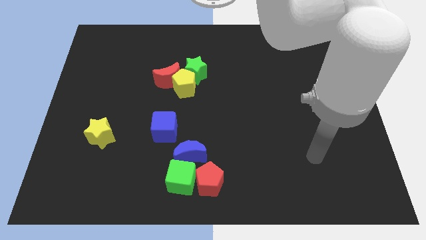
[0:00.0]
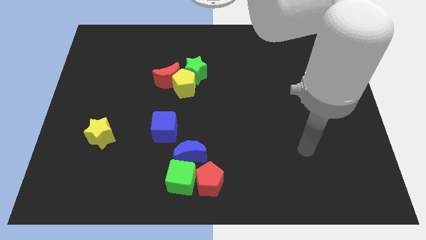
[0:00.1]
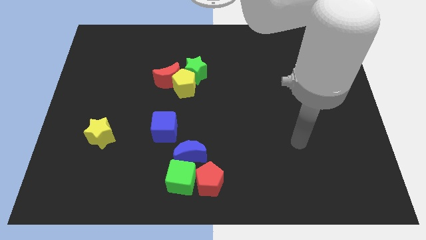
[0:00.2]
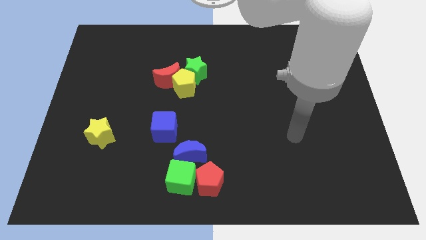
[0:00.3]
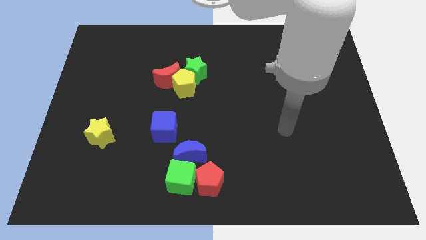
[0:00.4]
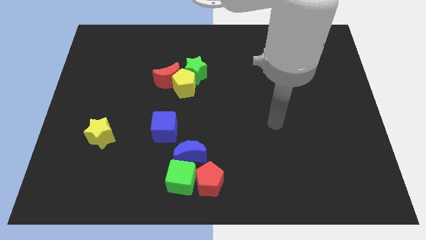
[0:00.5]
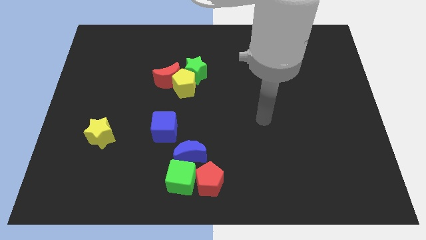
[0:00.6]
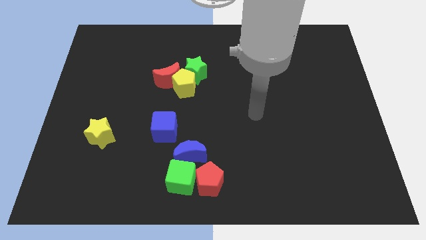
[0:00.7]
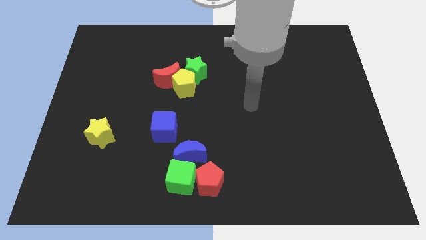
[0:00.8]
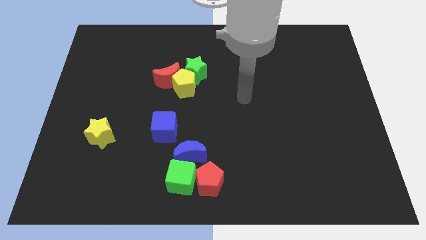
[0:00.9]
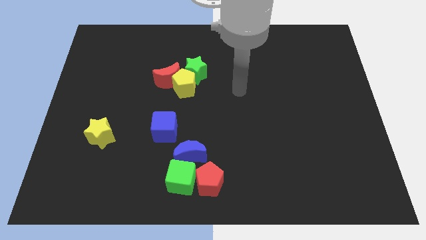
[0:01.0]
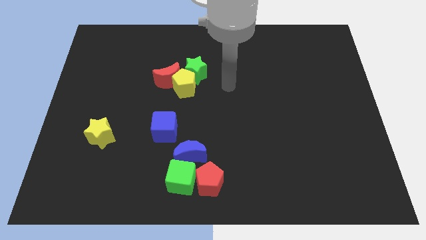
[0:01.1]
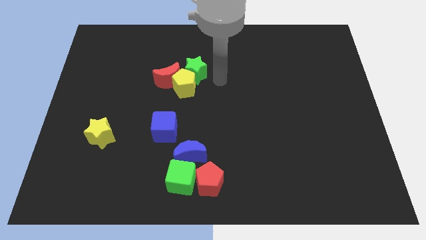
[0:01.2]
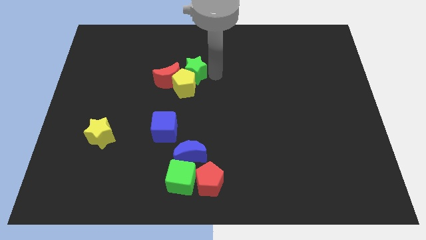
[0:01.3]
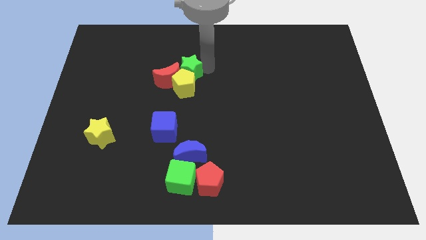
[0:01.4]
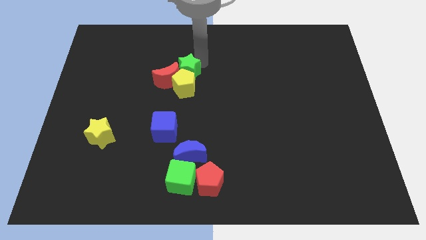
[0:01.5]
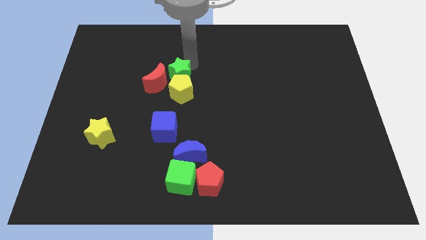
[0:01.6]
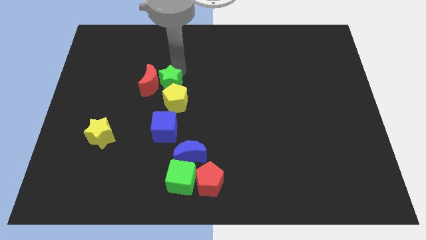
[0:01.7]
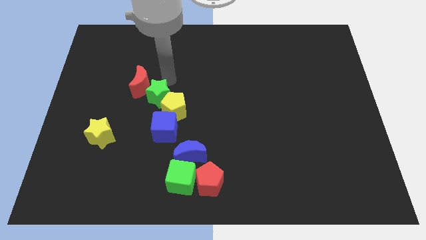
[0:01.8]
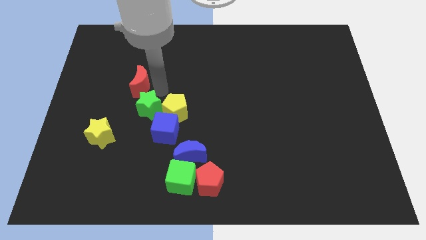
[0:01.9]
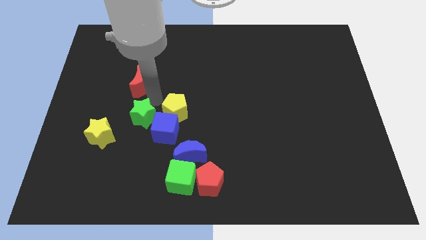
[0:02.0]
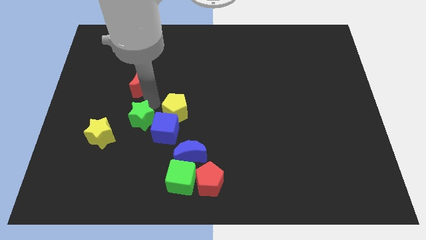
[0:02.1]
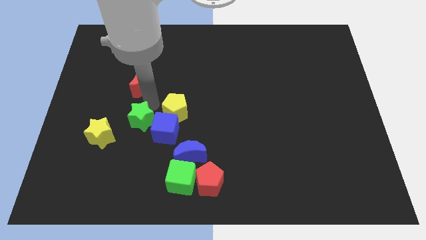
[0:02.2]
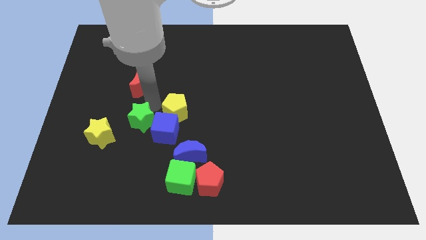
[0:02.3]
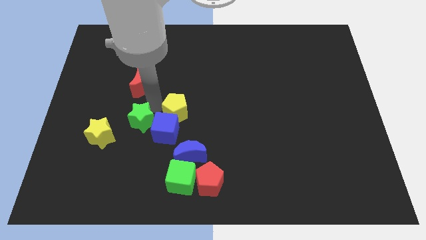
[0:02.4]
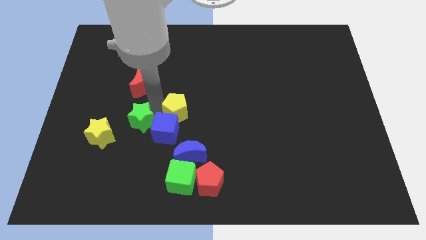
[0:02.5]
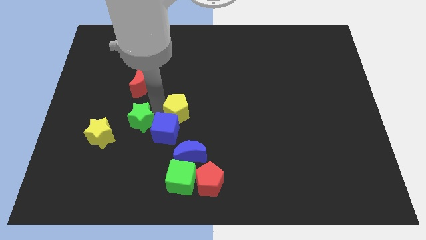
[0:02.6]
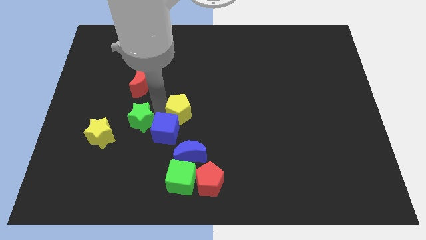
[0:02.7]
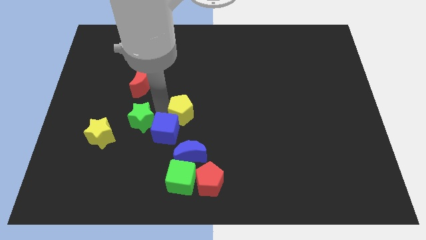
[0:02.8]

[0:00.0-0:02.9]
separate the yellow pentagon from the red moon and green star

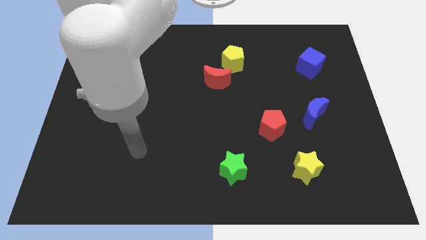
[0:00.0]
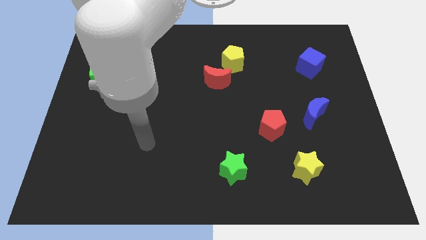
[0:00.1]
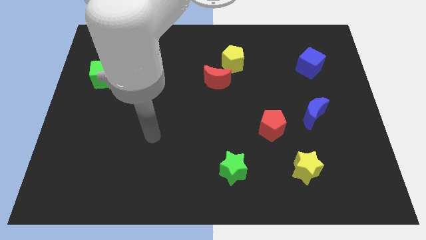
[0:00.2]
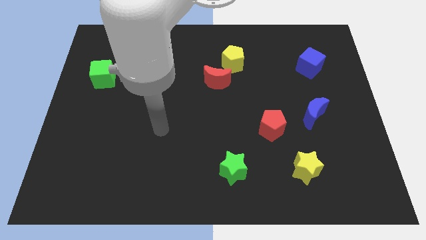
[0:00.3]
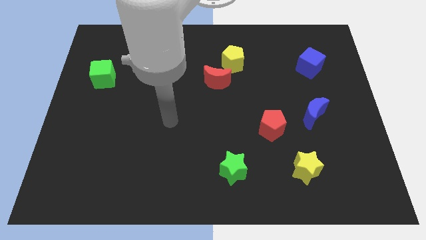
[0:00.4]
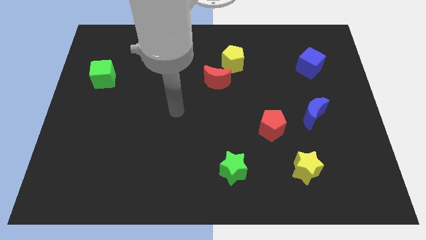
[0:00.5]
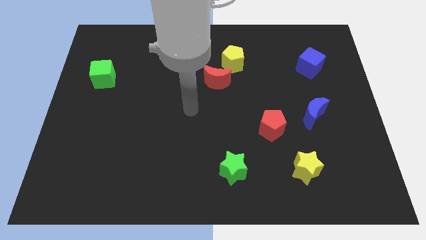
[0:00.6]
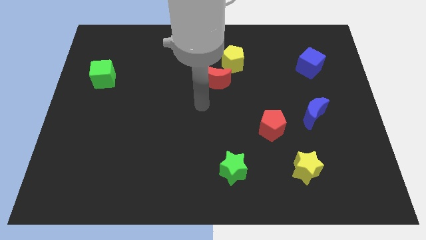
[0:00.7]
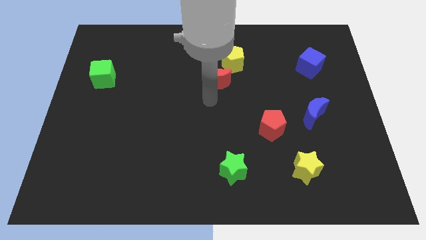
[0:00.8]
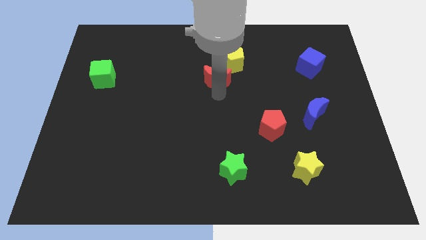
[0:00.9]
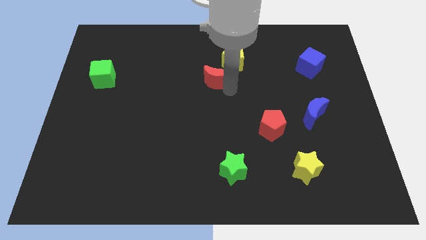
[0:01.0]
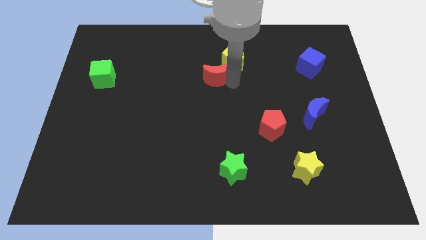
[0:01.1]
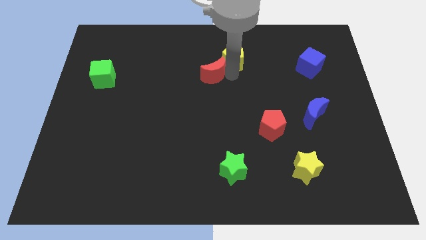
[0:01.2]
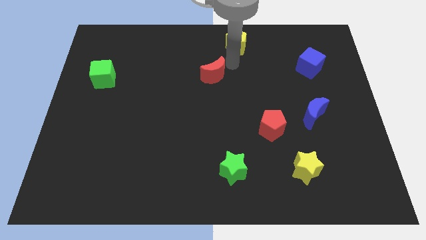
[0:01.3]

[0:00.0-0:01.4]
move the red moon away from the yellow pentagon

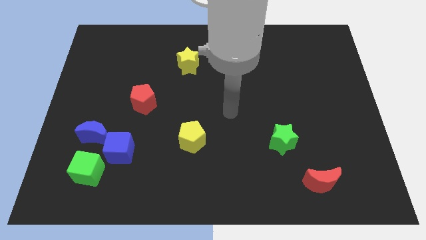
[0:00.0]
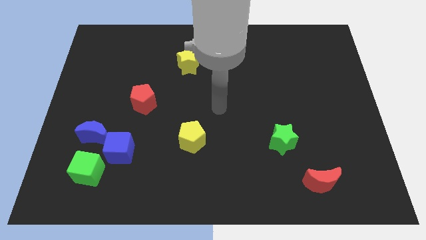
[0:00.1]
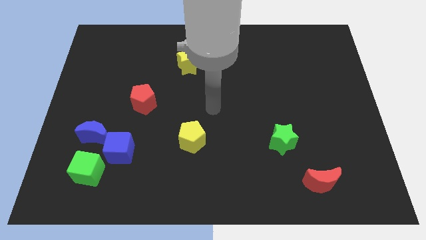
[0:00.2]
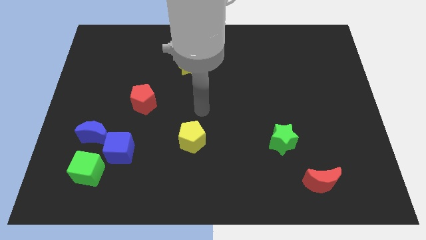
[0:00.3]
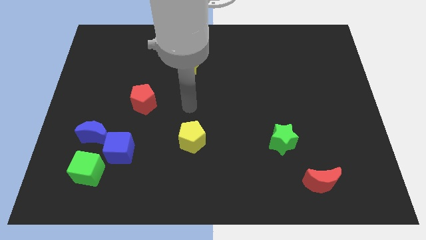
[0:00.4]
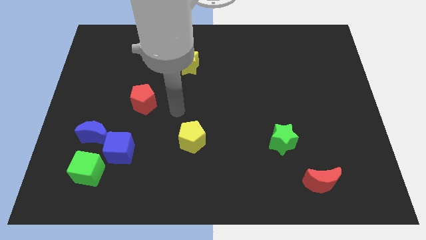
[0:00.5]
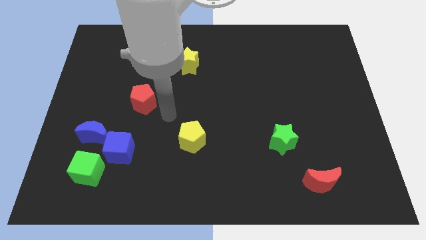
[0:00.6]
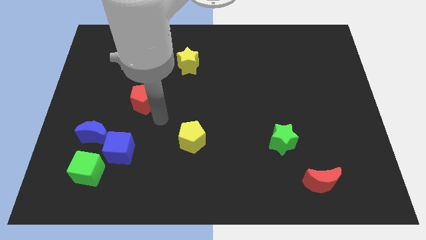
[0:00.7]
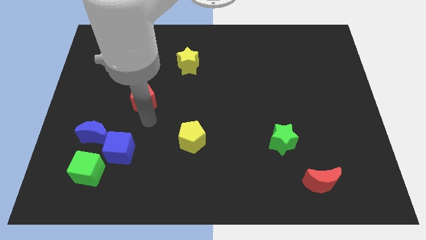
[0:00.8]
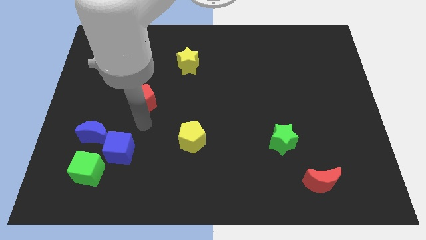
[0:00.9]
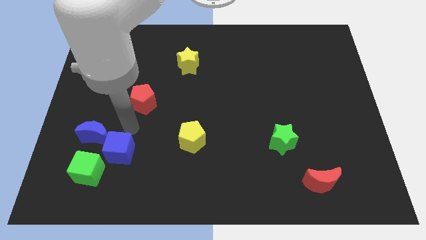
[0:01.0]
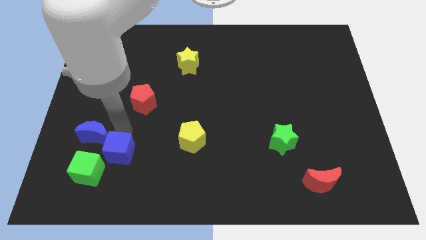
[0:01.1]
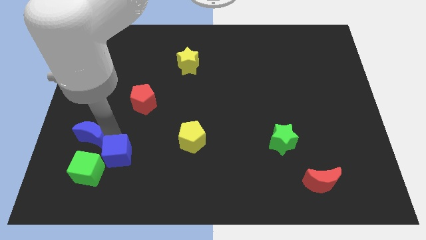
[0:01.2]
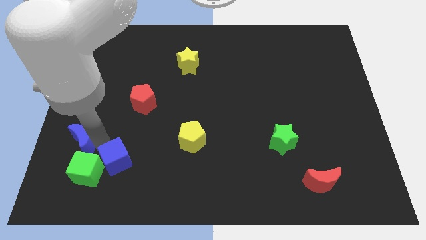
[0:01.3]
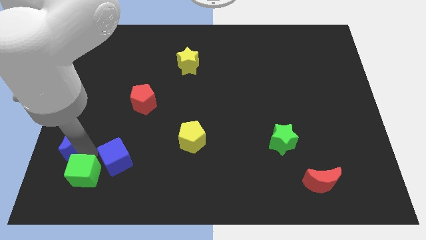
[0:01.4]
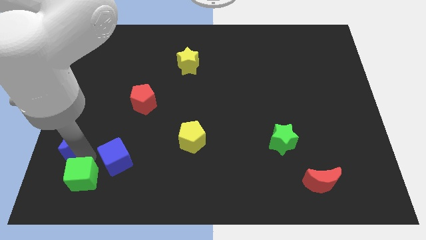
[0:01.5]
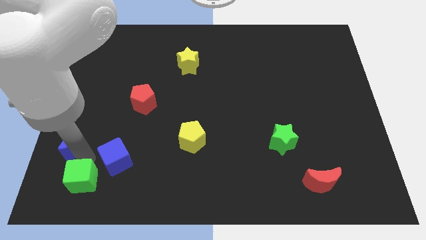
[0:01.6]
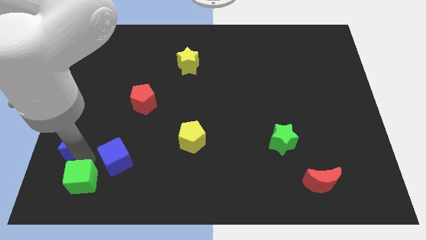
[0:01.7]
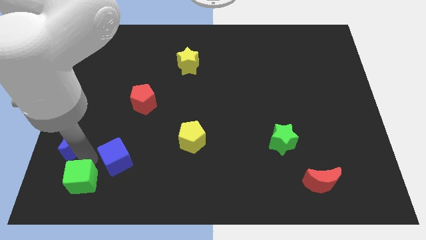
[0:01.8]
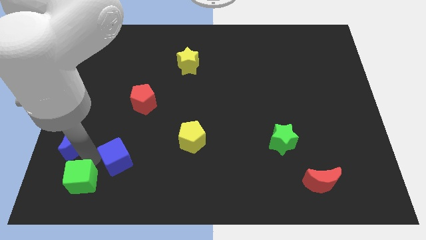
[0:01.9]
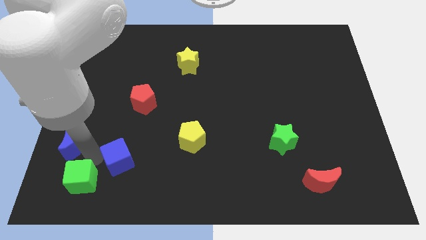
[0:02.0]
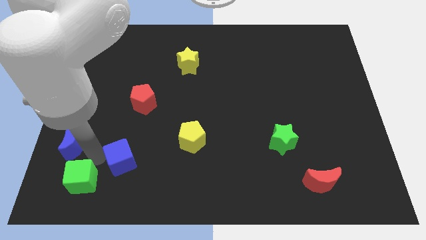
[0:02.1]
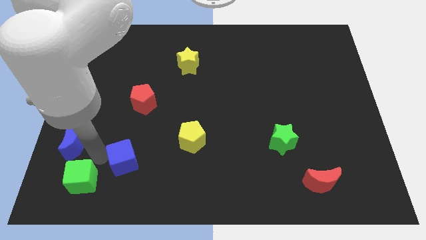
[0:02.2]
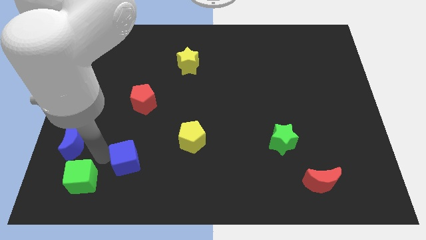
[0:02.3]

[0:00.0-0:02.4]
move the blue cube away from the blue moon and green cube

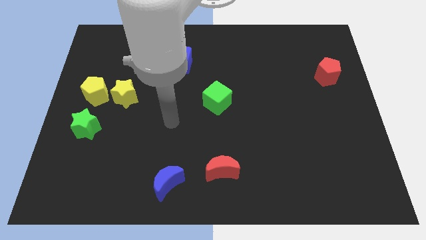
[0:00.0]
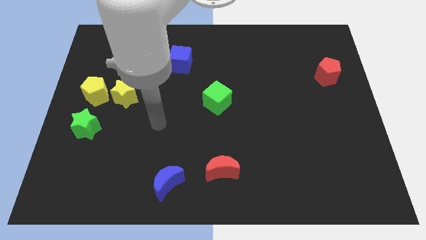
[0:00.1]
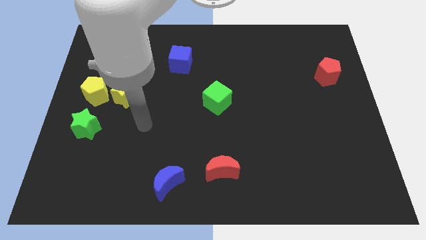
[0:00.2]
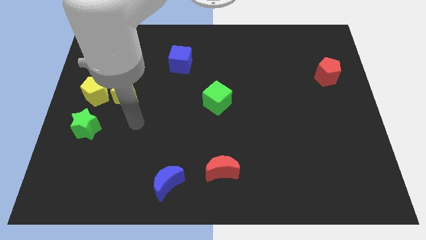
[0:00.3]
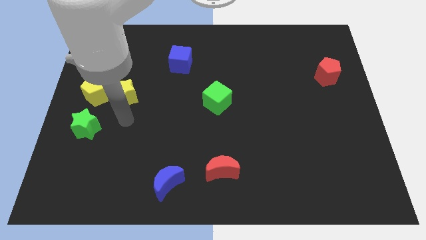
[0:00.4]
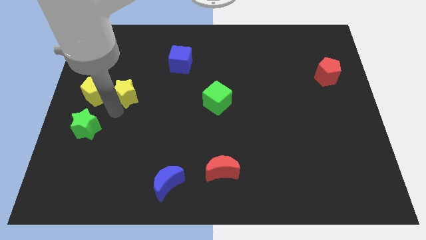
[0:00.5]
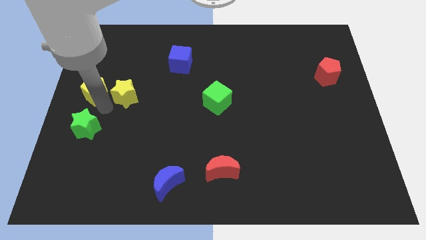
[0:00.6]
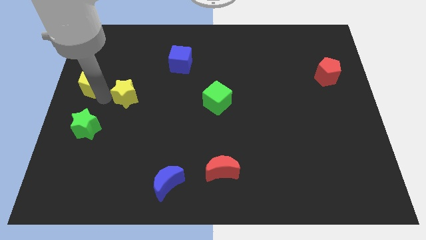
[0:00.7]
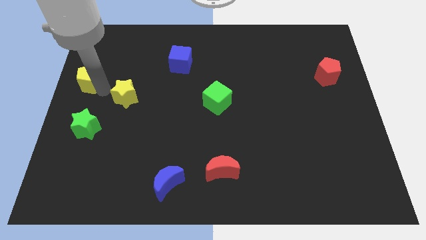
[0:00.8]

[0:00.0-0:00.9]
separate the yellow star from the yellow pentagon

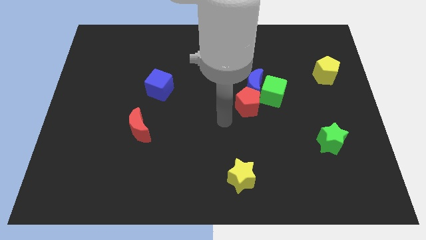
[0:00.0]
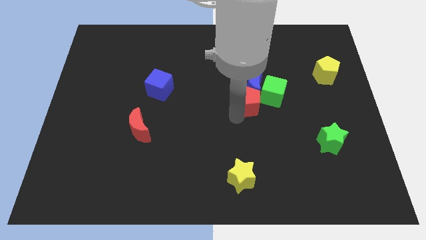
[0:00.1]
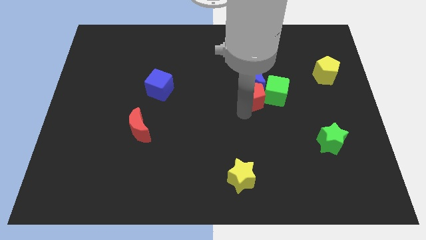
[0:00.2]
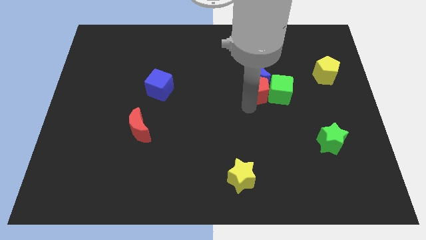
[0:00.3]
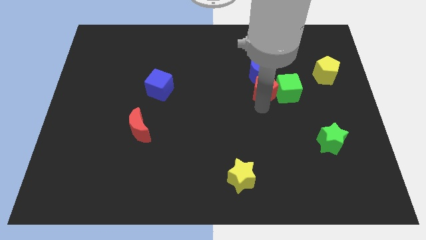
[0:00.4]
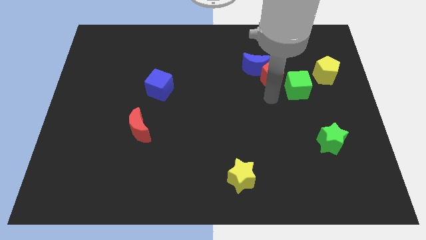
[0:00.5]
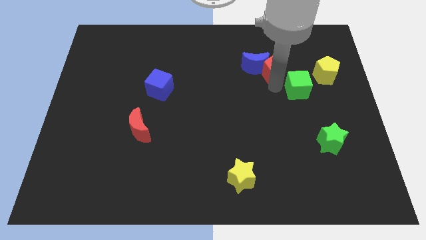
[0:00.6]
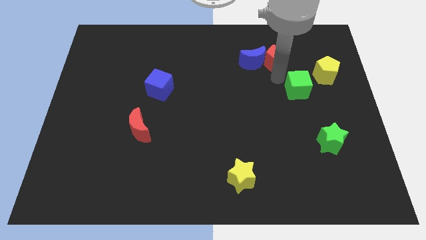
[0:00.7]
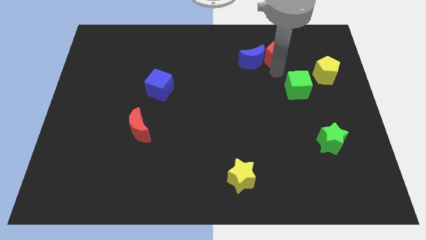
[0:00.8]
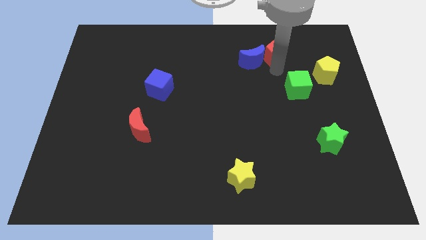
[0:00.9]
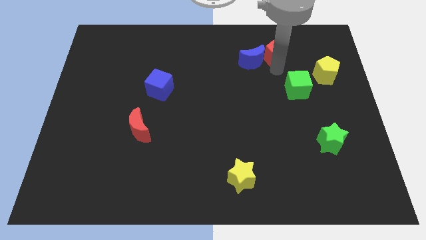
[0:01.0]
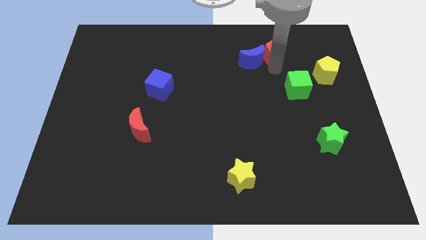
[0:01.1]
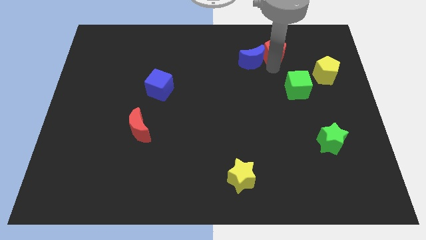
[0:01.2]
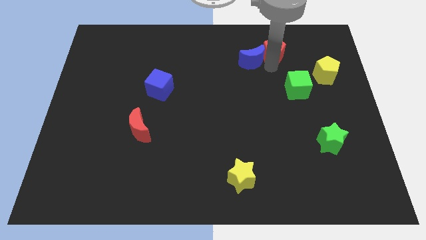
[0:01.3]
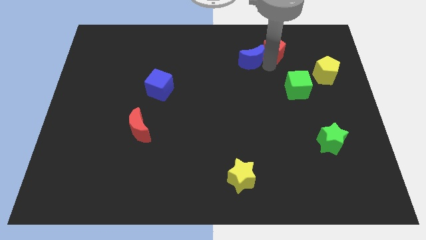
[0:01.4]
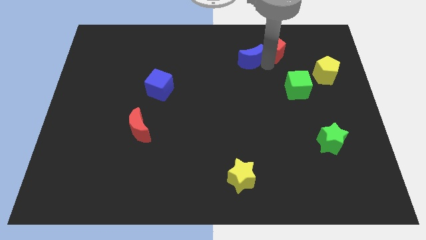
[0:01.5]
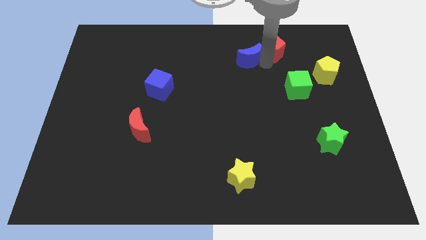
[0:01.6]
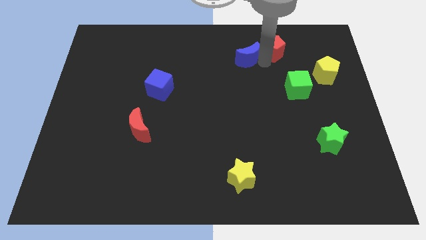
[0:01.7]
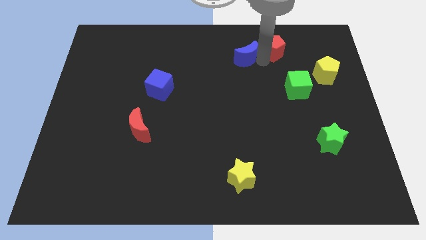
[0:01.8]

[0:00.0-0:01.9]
pull the blue moon apart from the green cube and red pentagon
